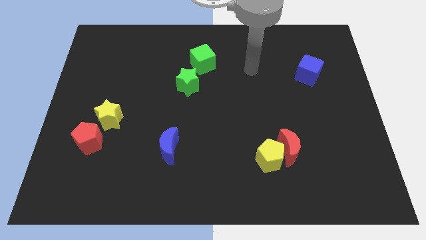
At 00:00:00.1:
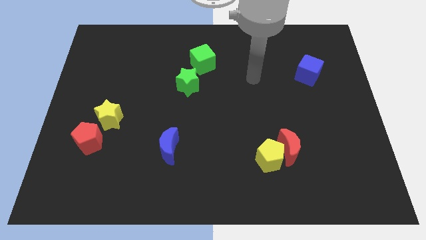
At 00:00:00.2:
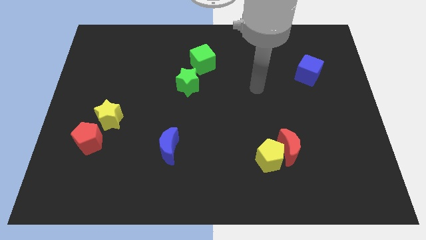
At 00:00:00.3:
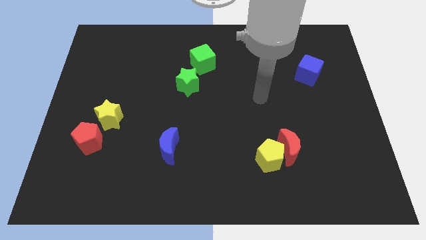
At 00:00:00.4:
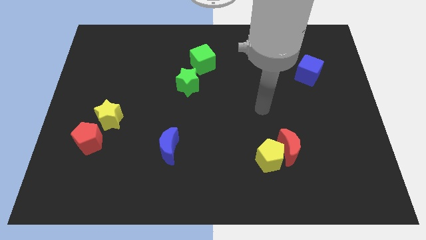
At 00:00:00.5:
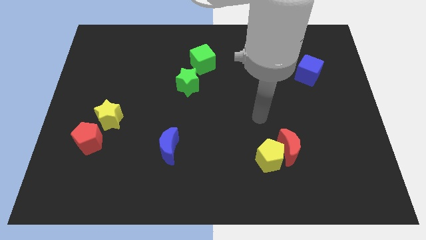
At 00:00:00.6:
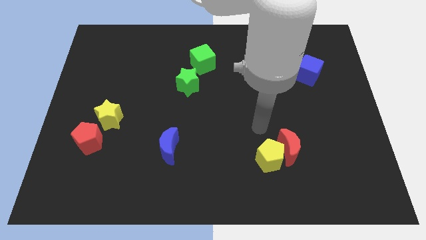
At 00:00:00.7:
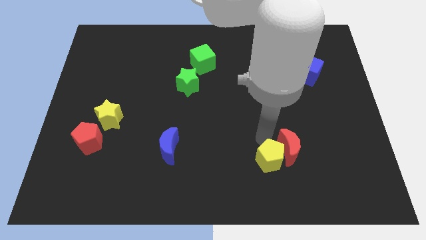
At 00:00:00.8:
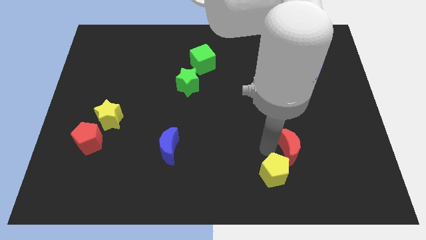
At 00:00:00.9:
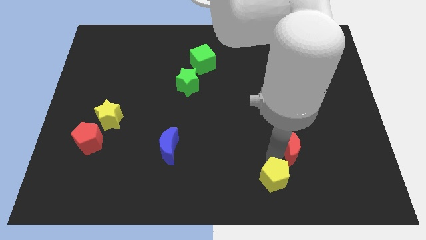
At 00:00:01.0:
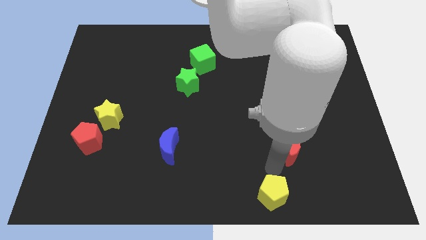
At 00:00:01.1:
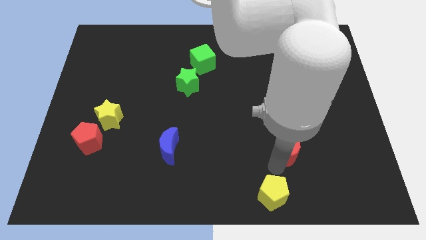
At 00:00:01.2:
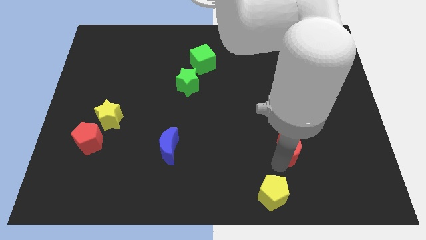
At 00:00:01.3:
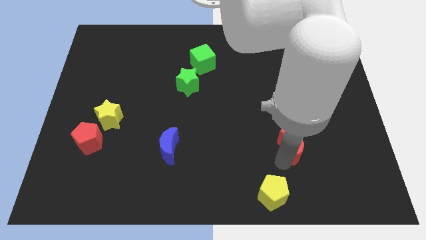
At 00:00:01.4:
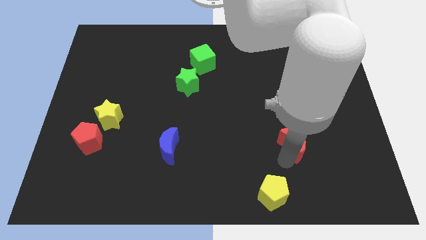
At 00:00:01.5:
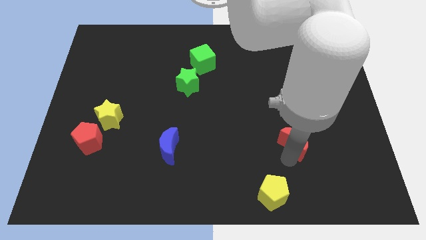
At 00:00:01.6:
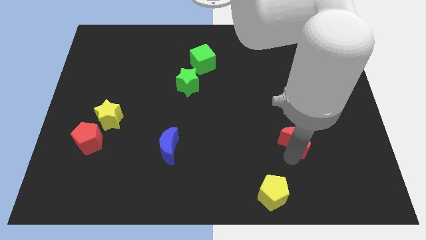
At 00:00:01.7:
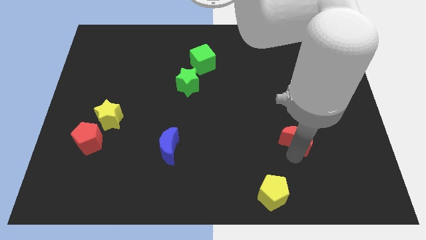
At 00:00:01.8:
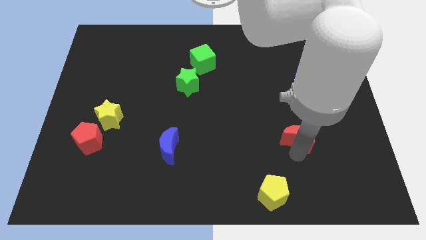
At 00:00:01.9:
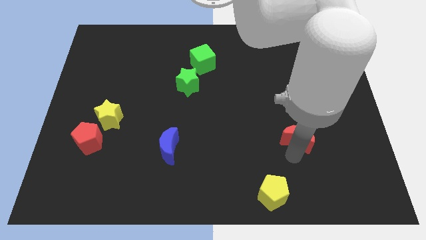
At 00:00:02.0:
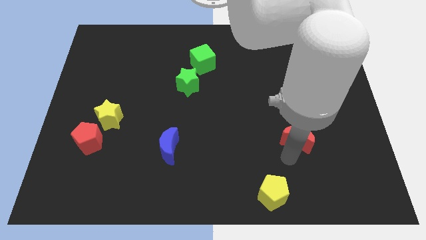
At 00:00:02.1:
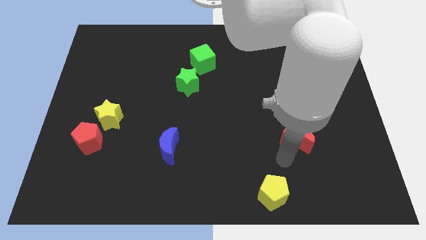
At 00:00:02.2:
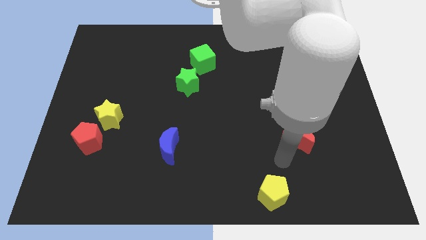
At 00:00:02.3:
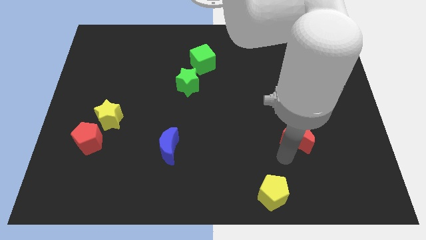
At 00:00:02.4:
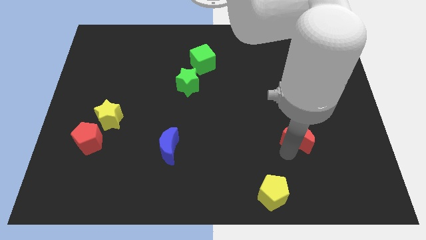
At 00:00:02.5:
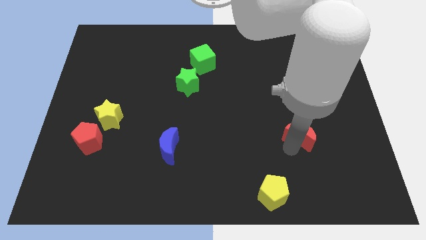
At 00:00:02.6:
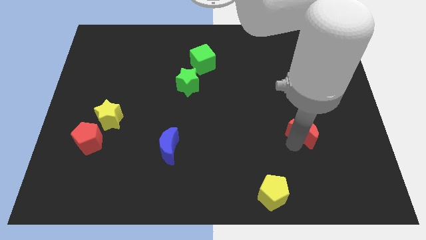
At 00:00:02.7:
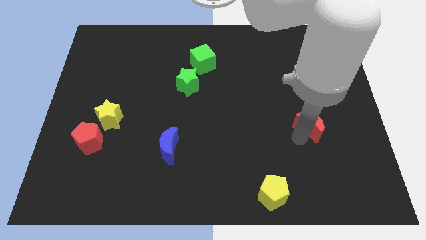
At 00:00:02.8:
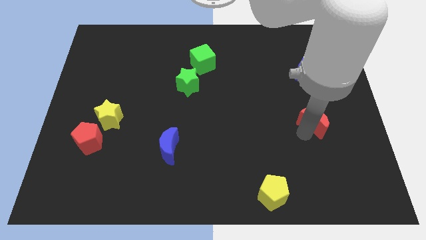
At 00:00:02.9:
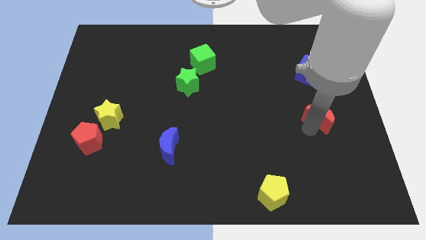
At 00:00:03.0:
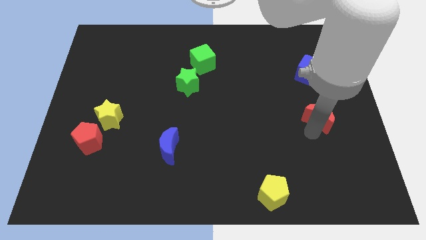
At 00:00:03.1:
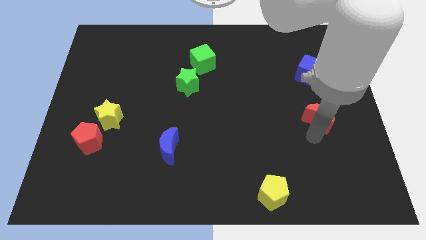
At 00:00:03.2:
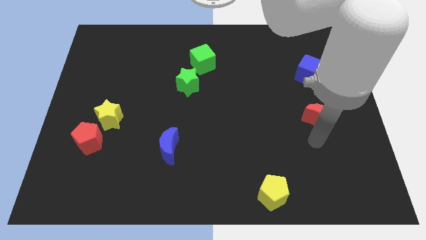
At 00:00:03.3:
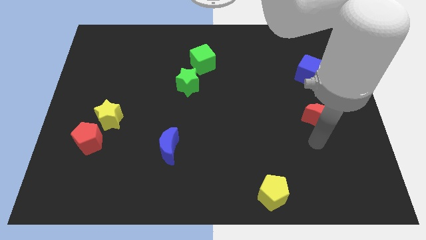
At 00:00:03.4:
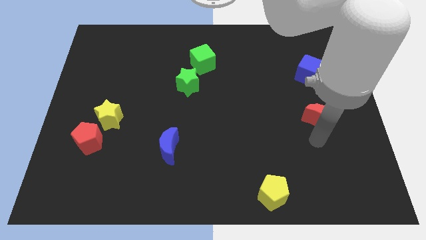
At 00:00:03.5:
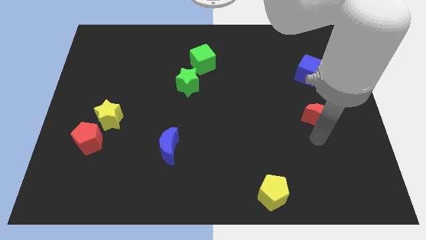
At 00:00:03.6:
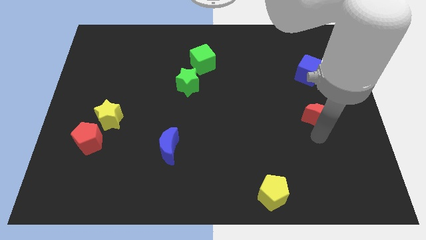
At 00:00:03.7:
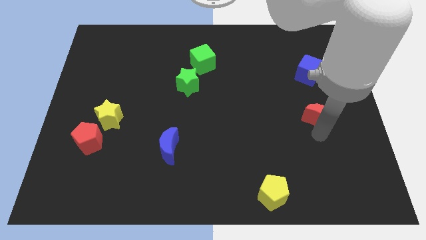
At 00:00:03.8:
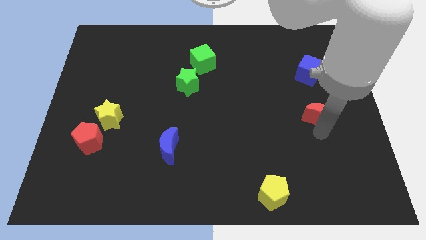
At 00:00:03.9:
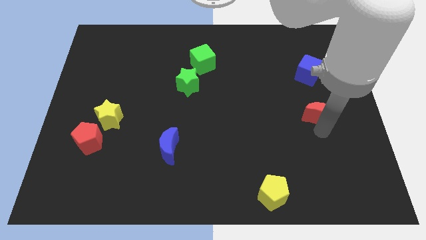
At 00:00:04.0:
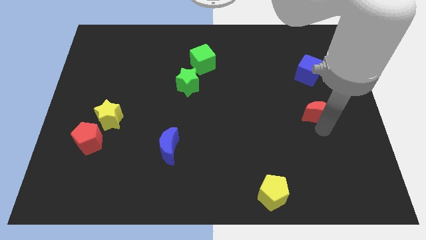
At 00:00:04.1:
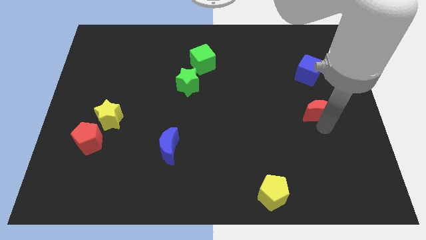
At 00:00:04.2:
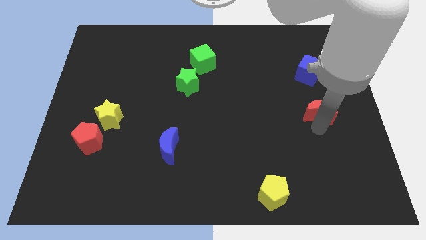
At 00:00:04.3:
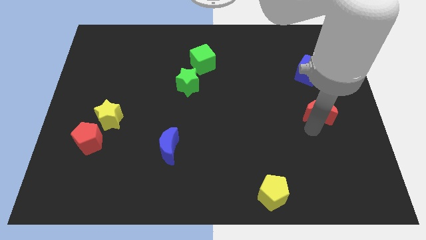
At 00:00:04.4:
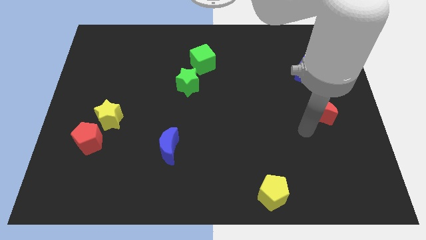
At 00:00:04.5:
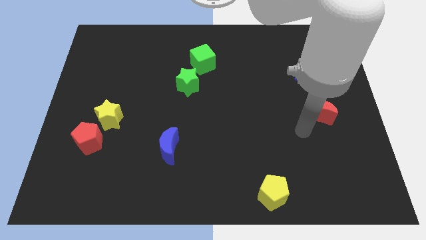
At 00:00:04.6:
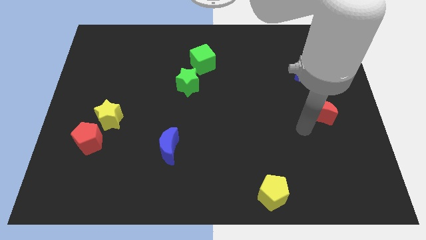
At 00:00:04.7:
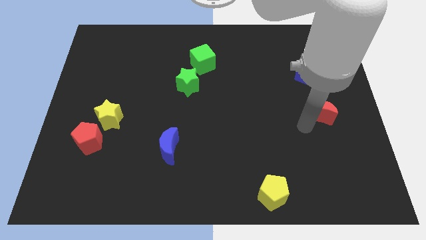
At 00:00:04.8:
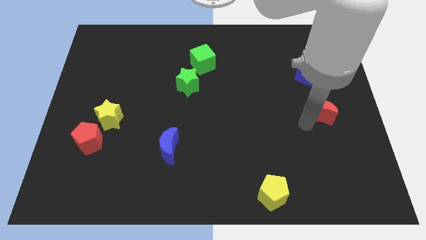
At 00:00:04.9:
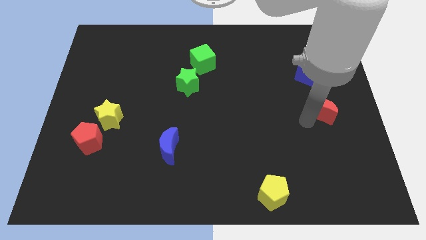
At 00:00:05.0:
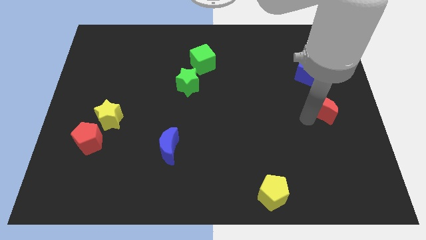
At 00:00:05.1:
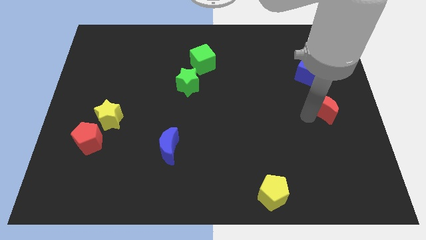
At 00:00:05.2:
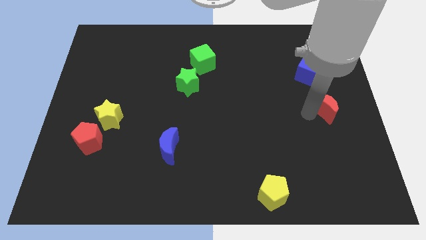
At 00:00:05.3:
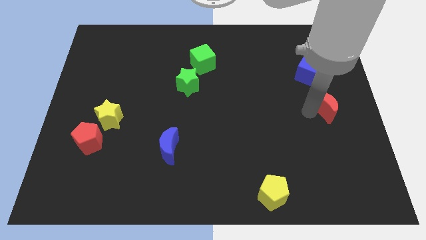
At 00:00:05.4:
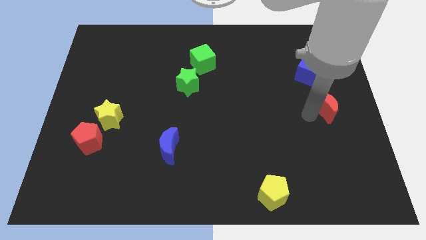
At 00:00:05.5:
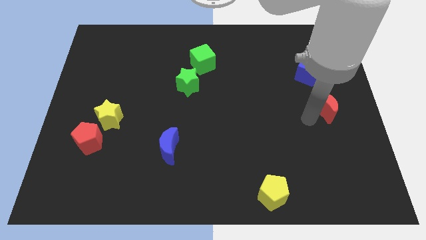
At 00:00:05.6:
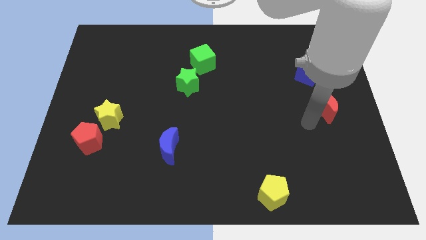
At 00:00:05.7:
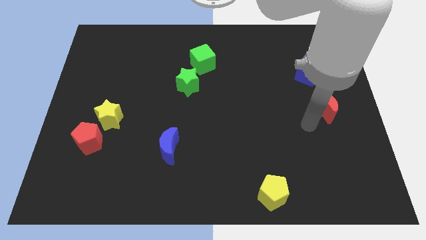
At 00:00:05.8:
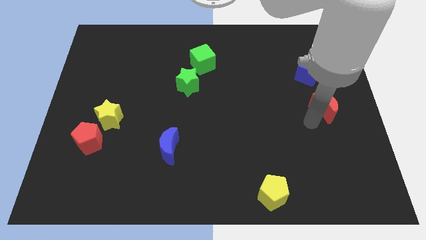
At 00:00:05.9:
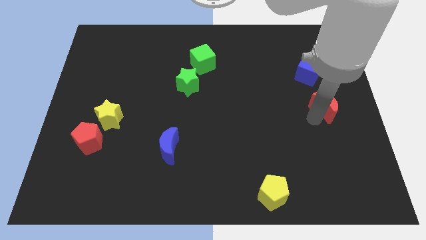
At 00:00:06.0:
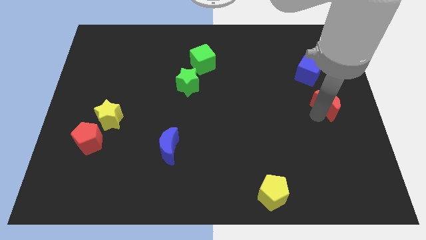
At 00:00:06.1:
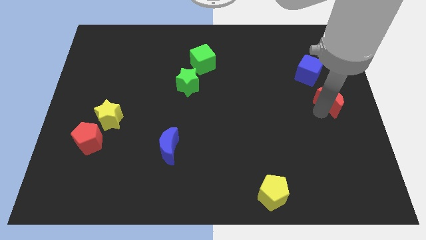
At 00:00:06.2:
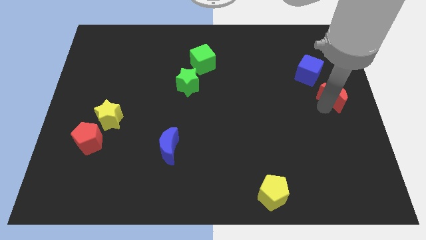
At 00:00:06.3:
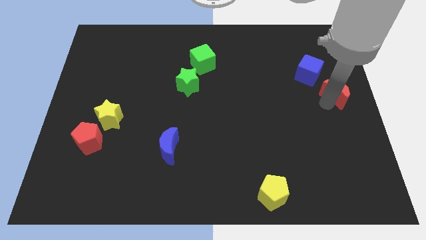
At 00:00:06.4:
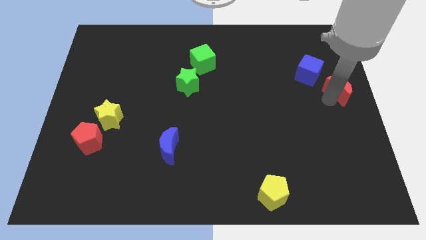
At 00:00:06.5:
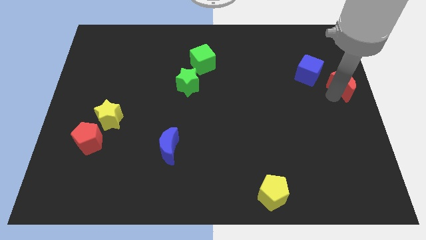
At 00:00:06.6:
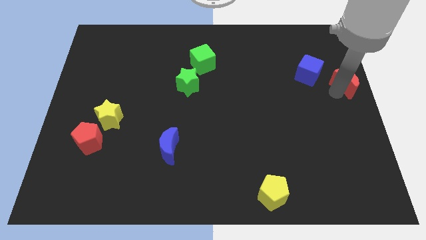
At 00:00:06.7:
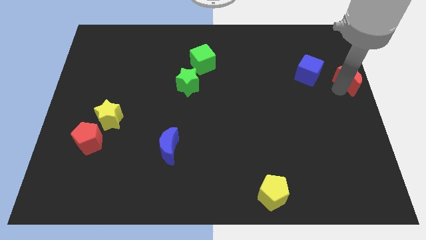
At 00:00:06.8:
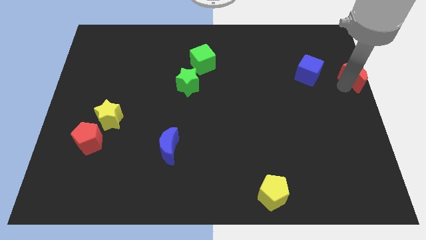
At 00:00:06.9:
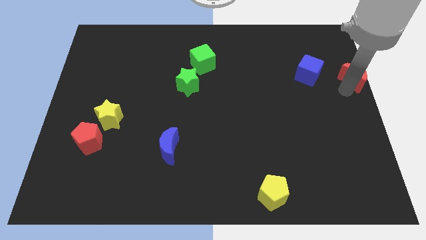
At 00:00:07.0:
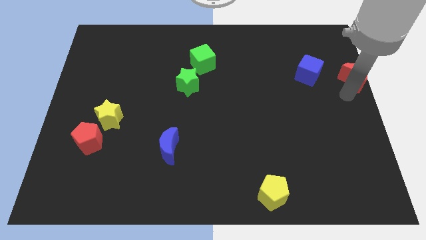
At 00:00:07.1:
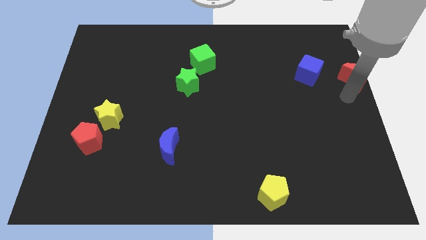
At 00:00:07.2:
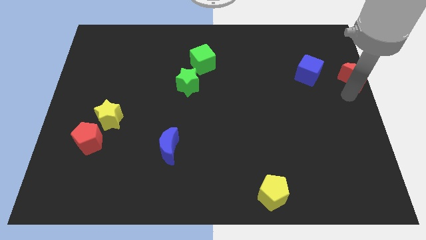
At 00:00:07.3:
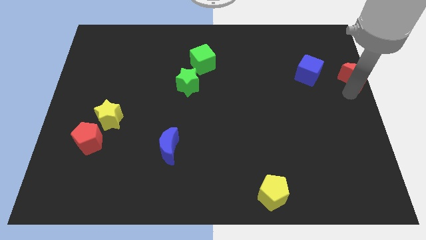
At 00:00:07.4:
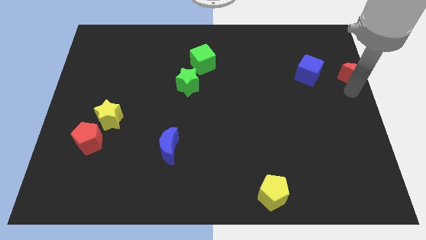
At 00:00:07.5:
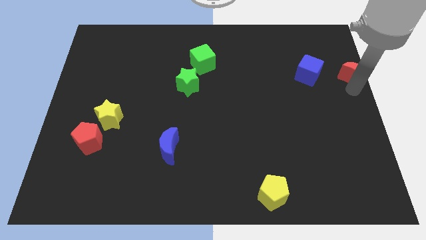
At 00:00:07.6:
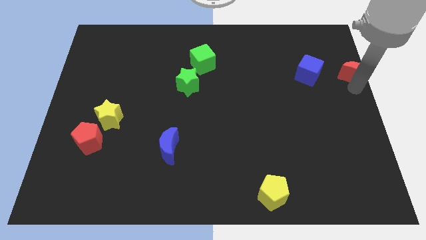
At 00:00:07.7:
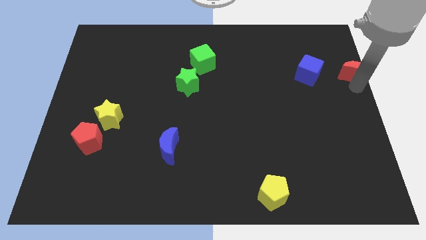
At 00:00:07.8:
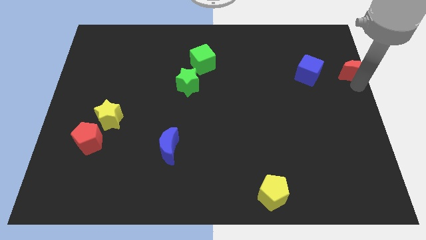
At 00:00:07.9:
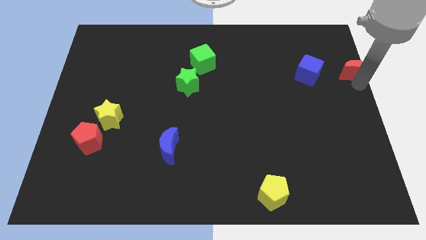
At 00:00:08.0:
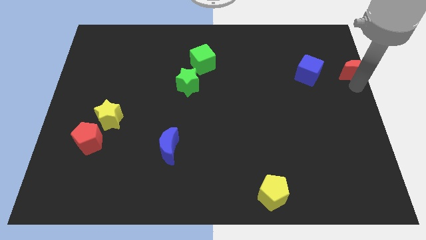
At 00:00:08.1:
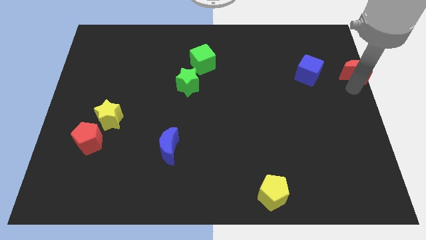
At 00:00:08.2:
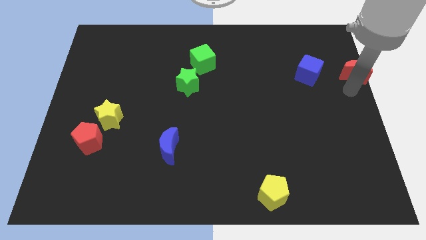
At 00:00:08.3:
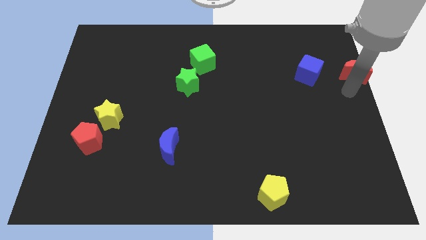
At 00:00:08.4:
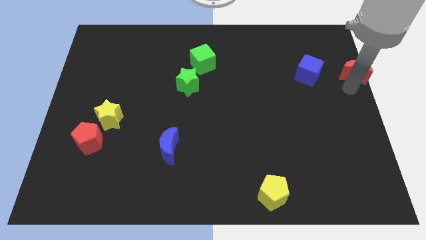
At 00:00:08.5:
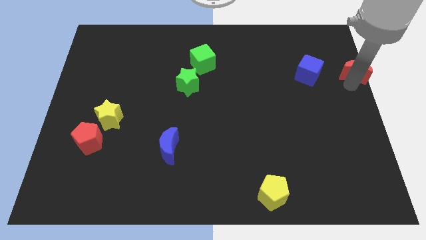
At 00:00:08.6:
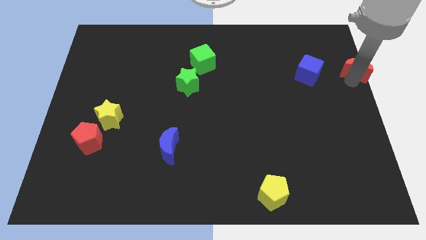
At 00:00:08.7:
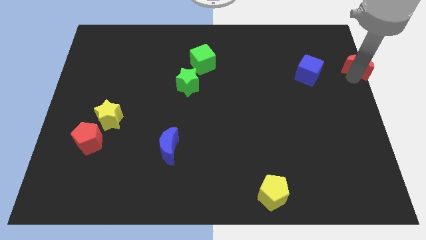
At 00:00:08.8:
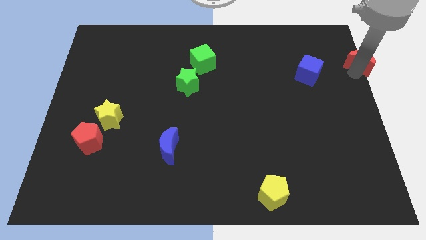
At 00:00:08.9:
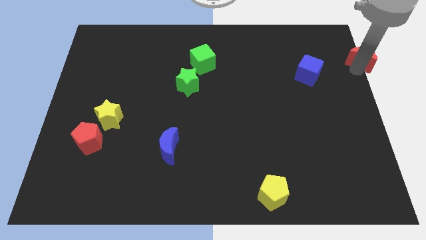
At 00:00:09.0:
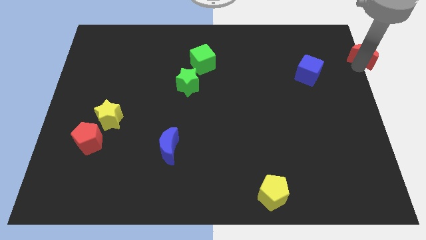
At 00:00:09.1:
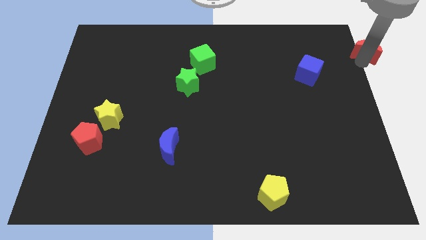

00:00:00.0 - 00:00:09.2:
put the red moon to the upper right corner
